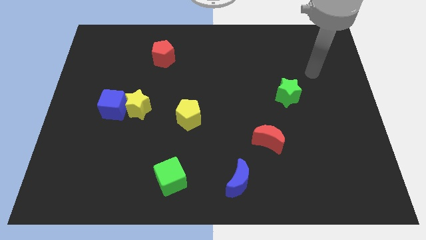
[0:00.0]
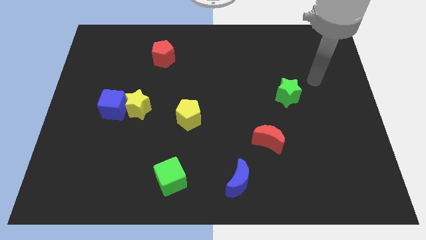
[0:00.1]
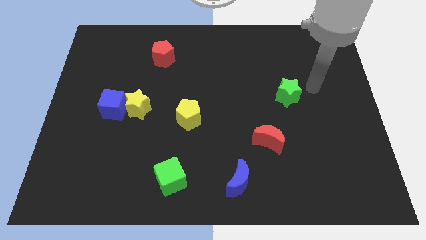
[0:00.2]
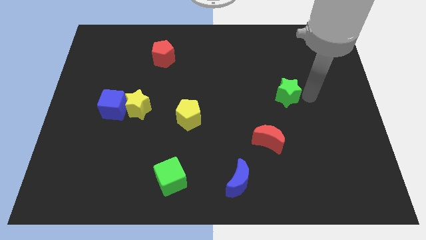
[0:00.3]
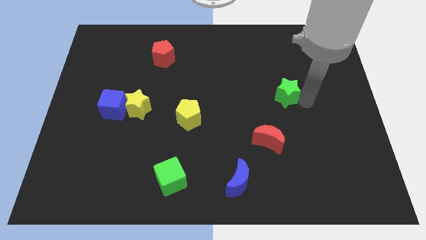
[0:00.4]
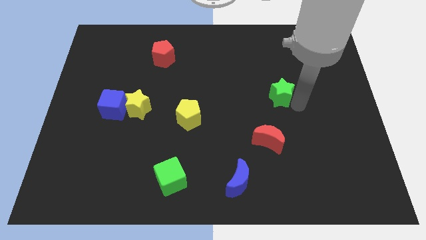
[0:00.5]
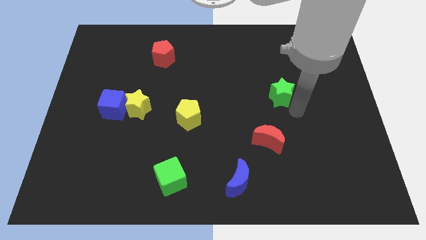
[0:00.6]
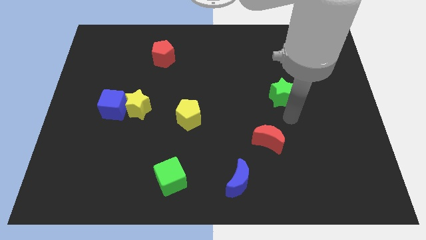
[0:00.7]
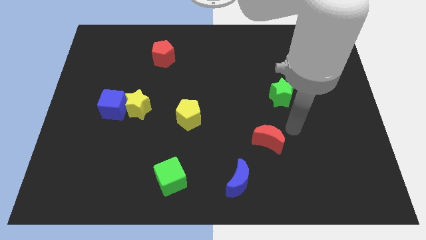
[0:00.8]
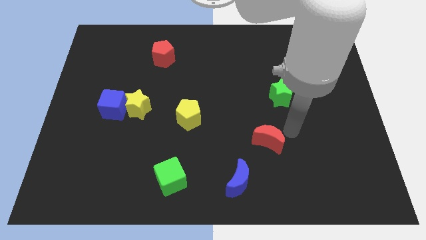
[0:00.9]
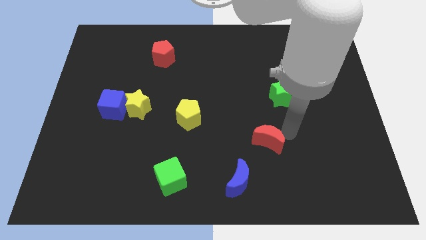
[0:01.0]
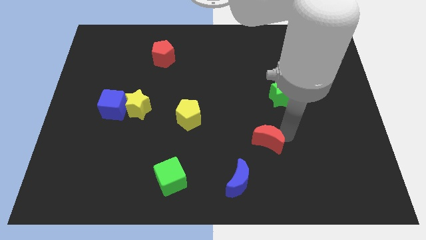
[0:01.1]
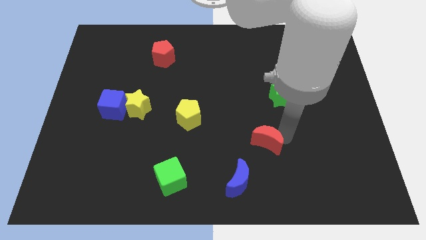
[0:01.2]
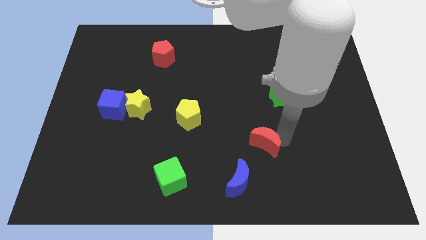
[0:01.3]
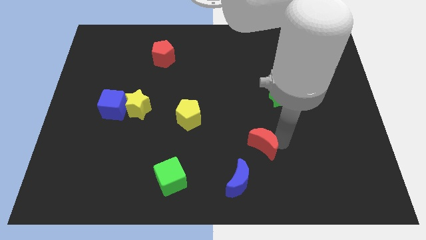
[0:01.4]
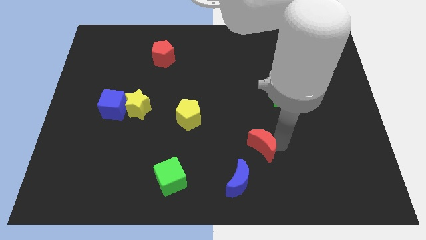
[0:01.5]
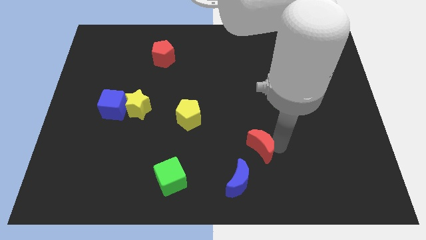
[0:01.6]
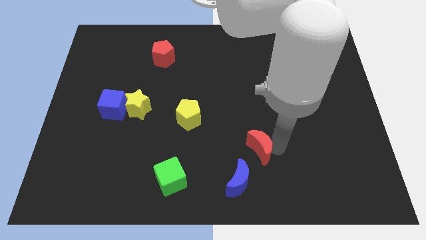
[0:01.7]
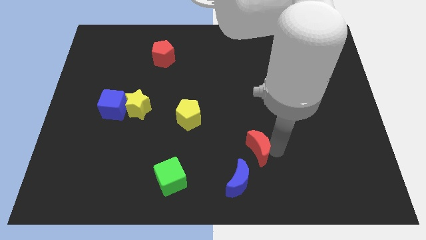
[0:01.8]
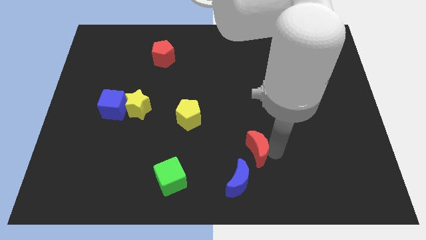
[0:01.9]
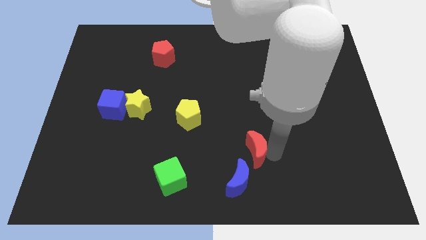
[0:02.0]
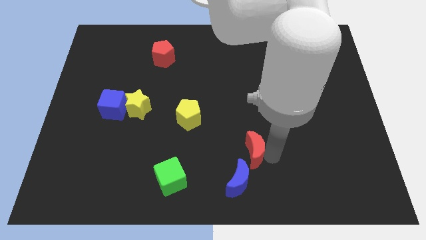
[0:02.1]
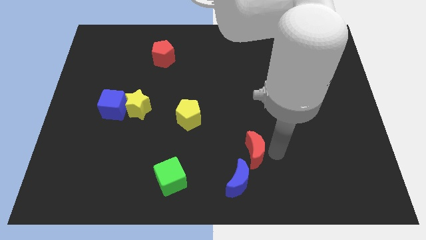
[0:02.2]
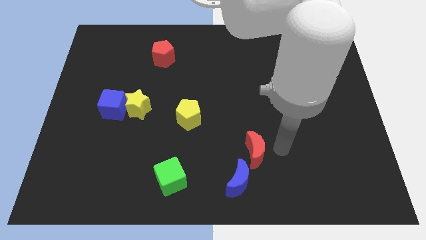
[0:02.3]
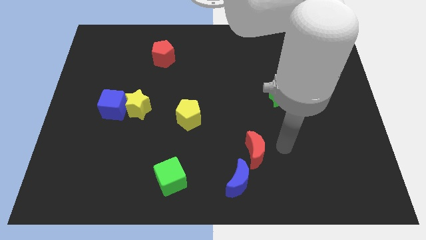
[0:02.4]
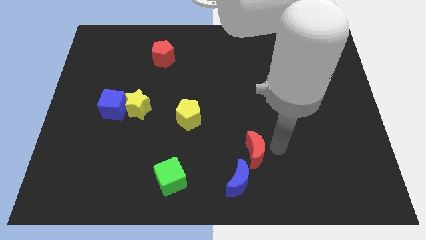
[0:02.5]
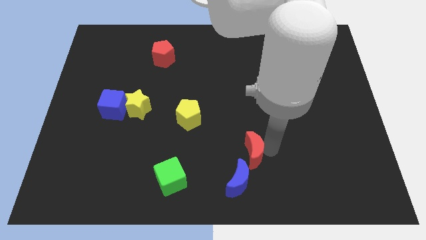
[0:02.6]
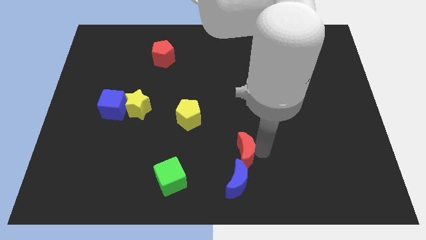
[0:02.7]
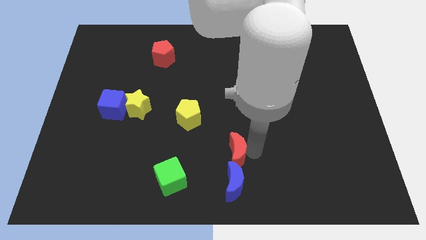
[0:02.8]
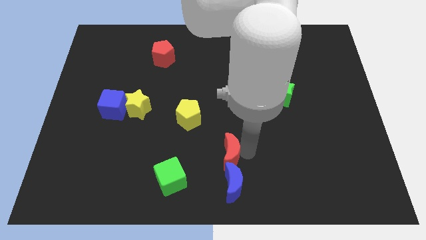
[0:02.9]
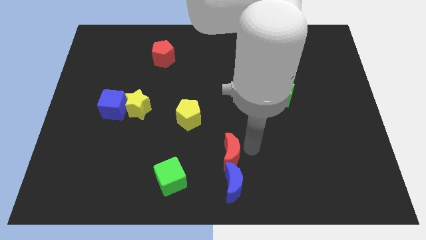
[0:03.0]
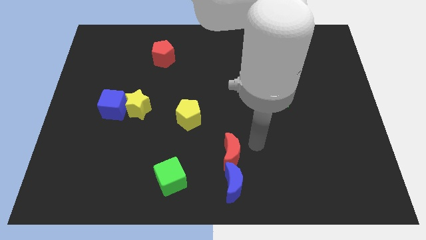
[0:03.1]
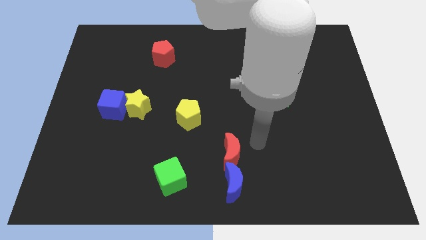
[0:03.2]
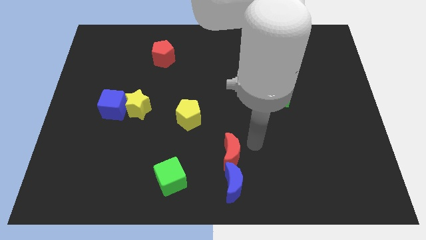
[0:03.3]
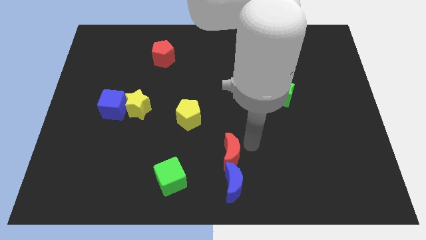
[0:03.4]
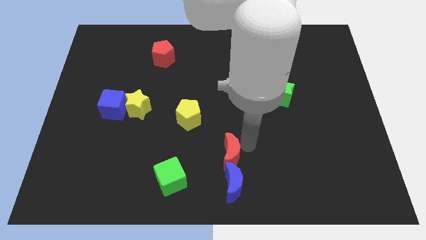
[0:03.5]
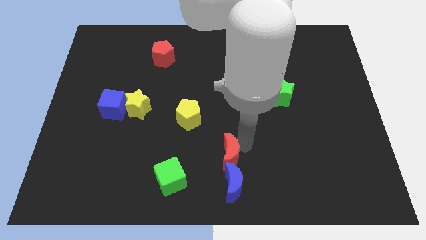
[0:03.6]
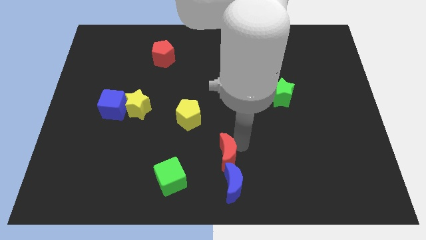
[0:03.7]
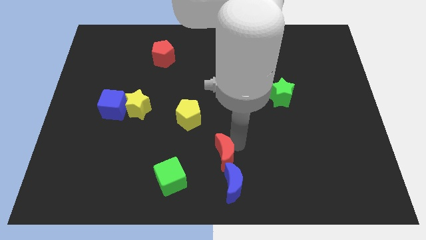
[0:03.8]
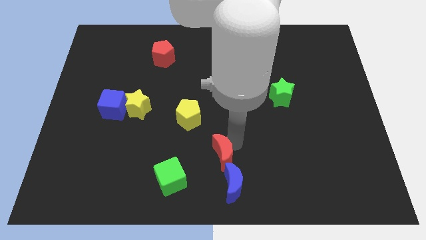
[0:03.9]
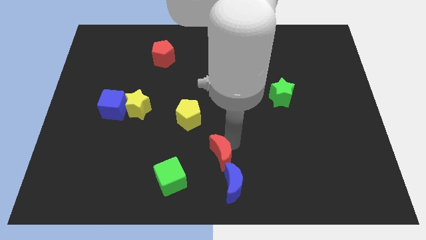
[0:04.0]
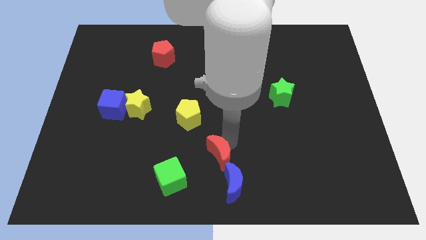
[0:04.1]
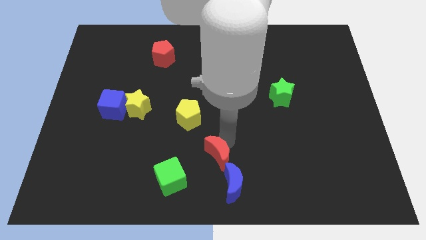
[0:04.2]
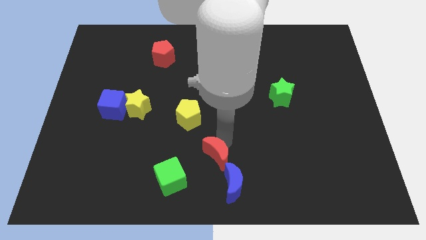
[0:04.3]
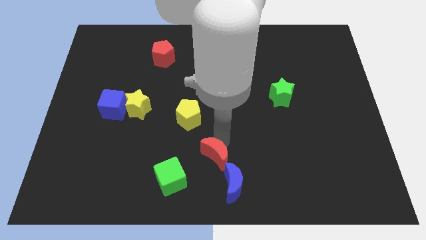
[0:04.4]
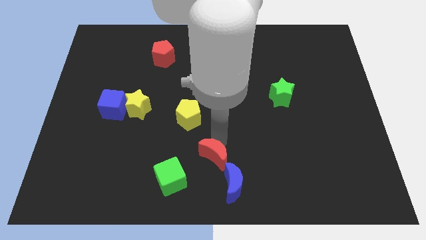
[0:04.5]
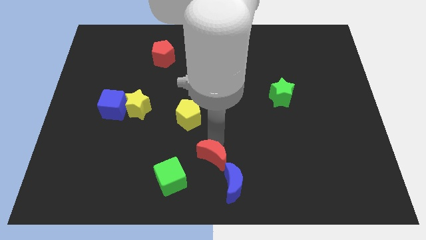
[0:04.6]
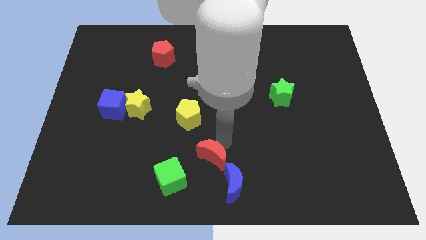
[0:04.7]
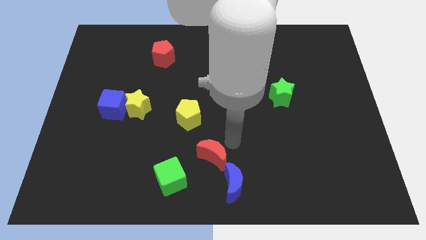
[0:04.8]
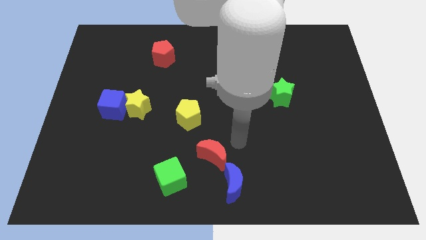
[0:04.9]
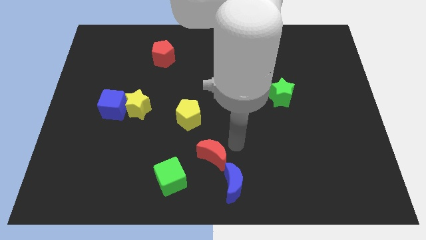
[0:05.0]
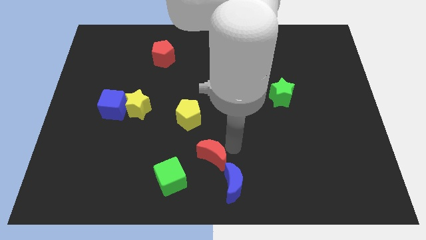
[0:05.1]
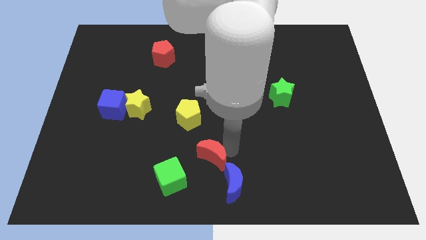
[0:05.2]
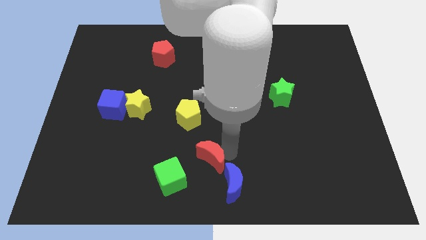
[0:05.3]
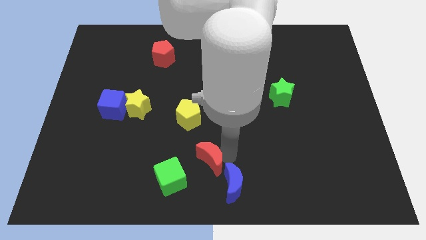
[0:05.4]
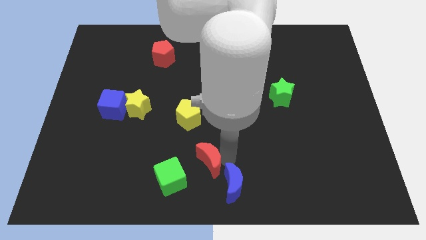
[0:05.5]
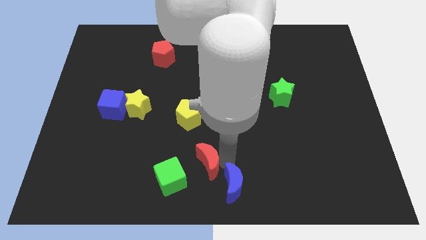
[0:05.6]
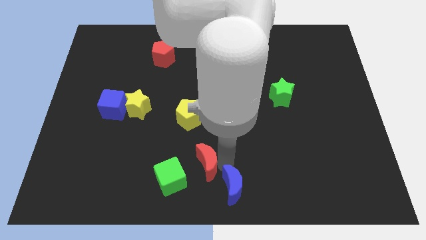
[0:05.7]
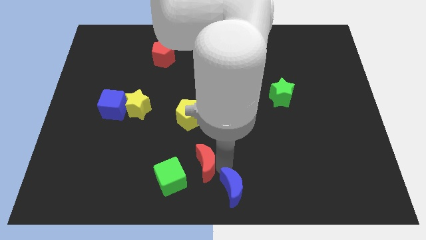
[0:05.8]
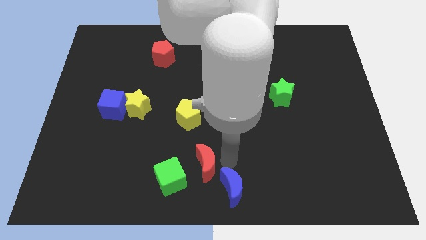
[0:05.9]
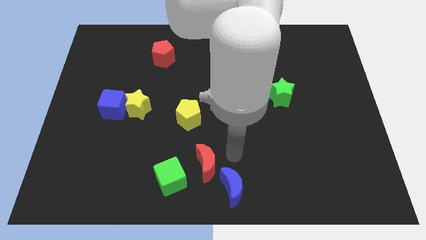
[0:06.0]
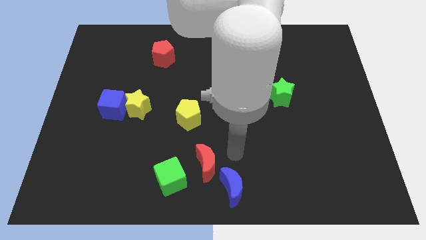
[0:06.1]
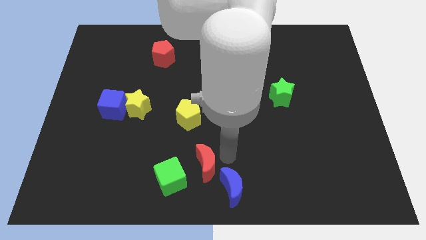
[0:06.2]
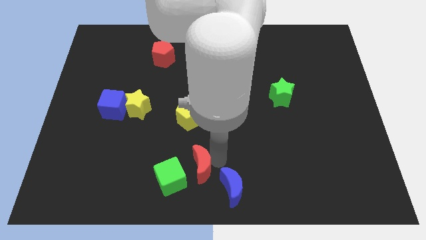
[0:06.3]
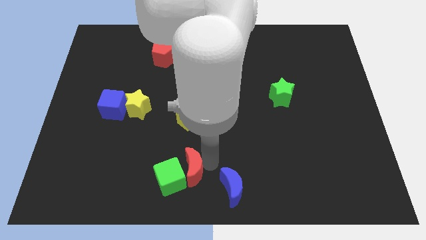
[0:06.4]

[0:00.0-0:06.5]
put the red moon next to the green cube
